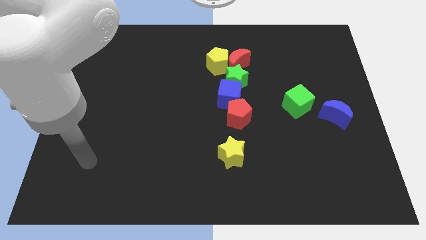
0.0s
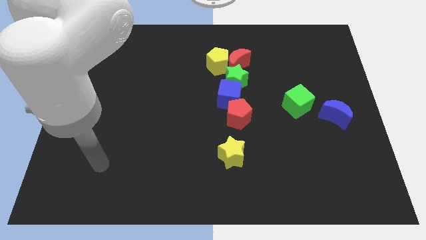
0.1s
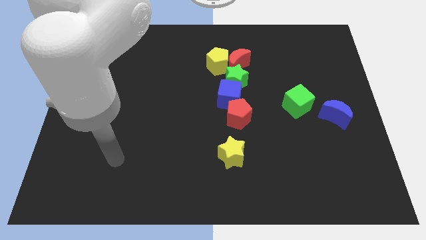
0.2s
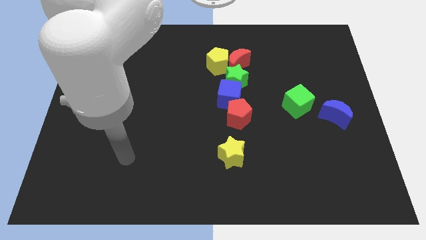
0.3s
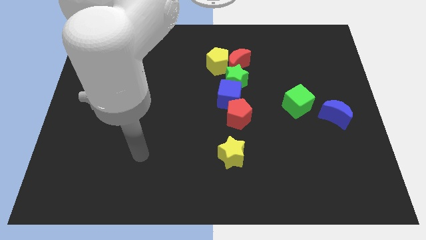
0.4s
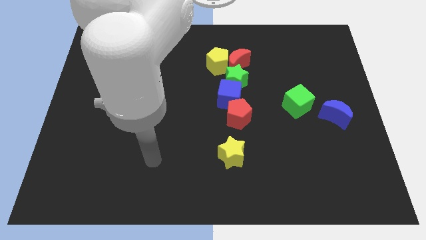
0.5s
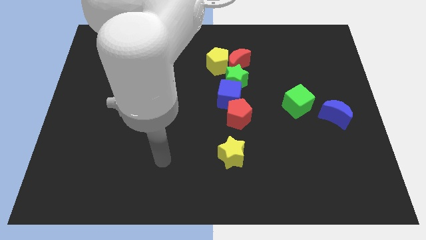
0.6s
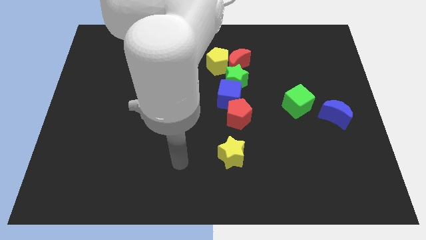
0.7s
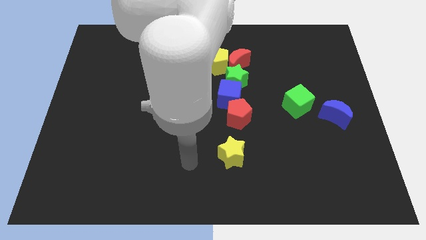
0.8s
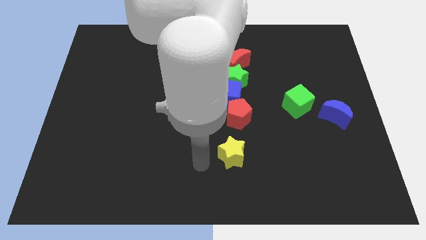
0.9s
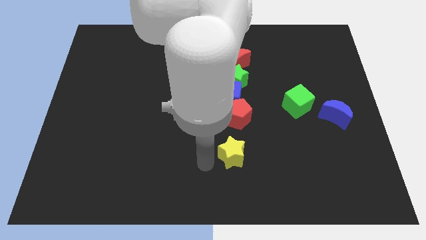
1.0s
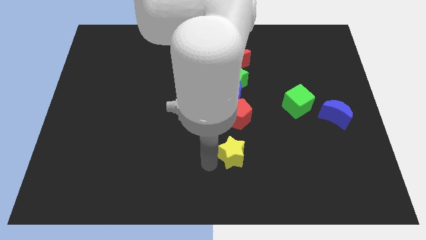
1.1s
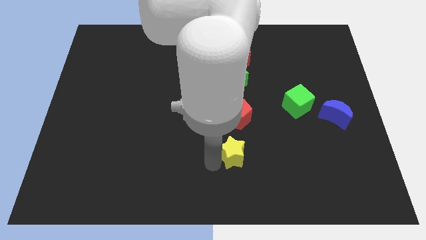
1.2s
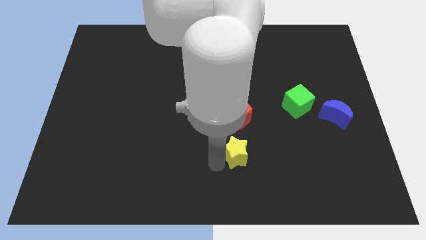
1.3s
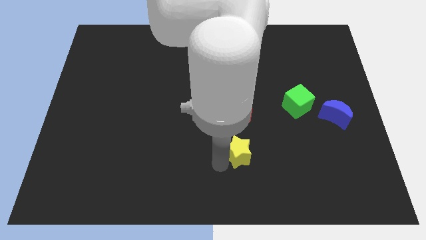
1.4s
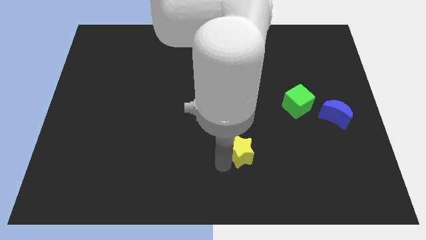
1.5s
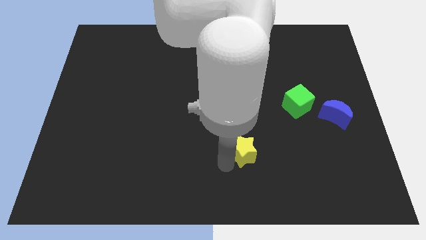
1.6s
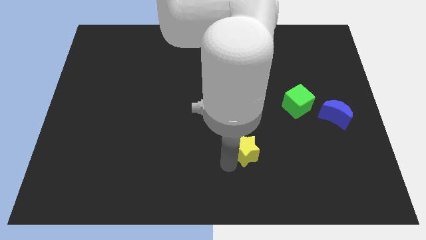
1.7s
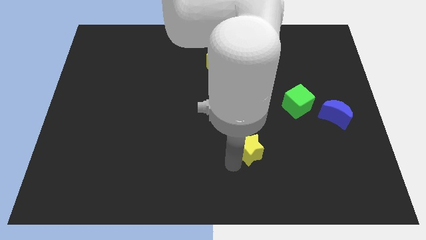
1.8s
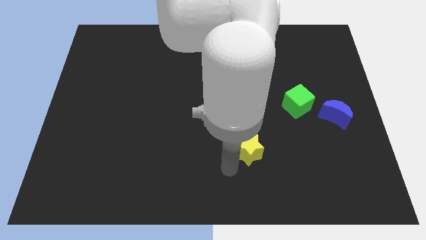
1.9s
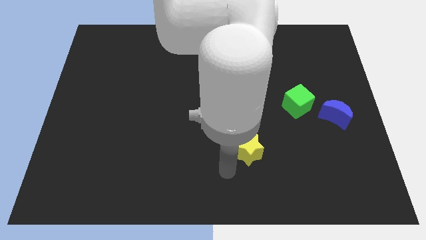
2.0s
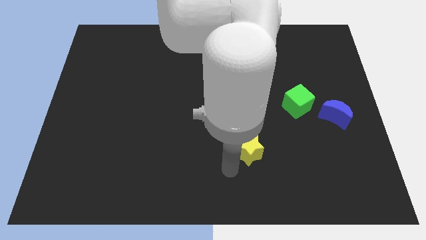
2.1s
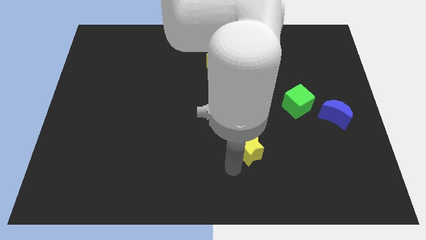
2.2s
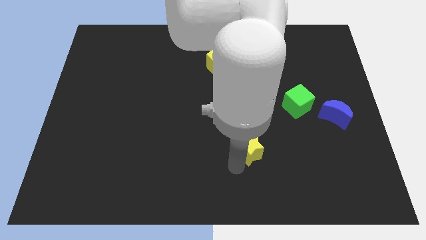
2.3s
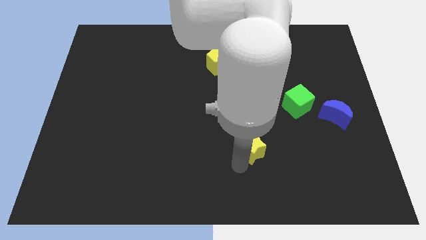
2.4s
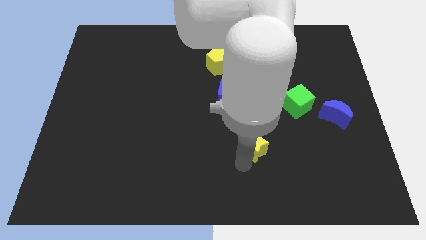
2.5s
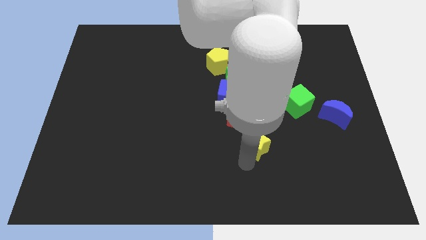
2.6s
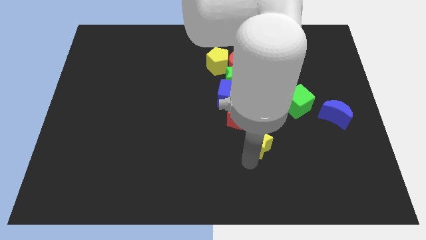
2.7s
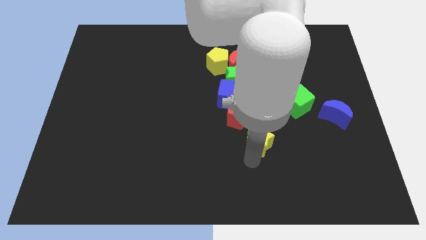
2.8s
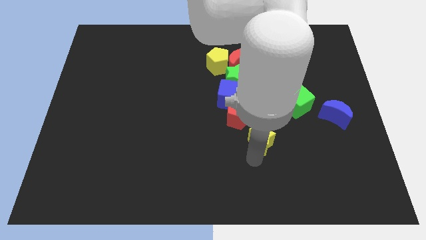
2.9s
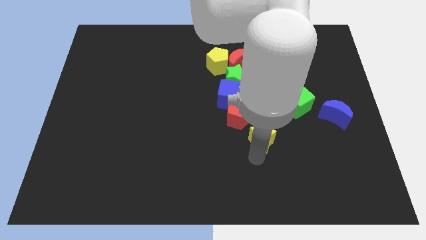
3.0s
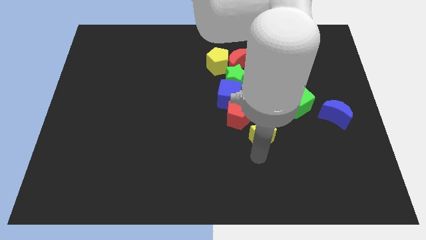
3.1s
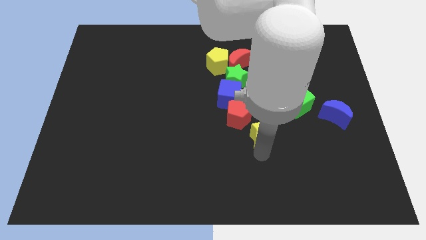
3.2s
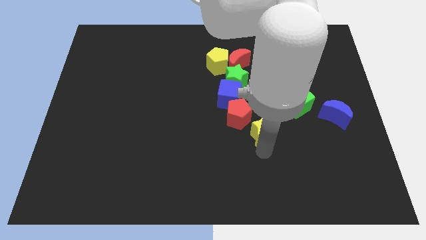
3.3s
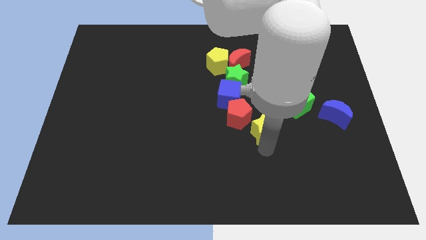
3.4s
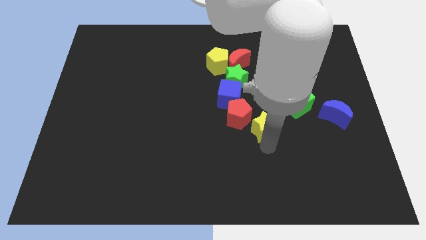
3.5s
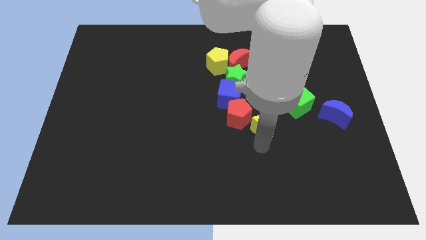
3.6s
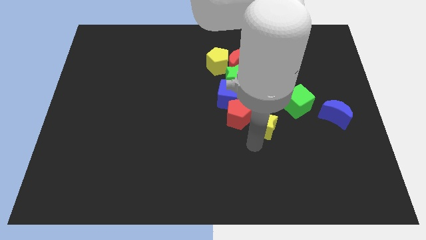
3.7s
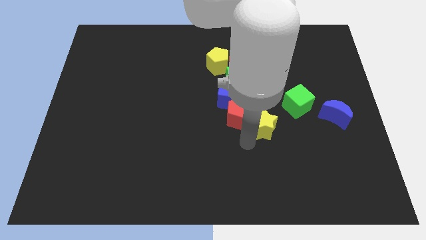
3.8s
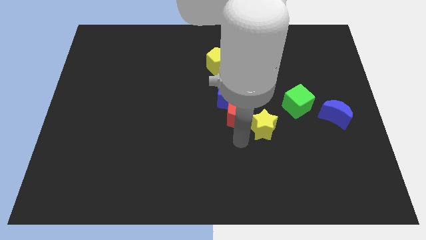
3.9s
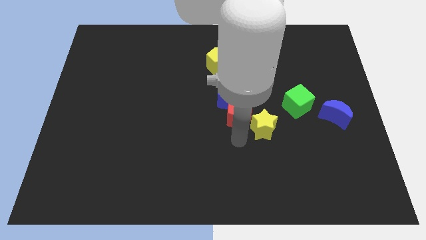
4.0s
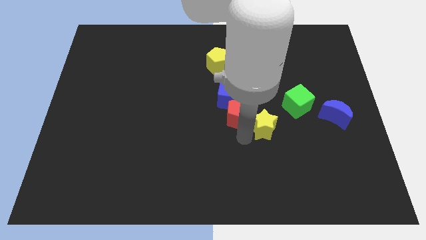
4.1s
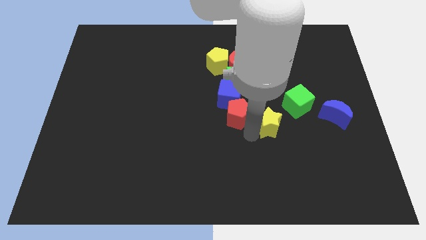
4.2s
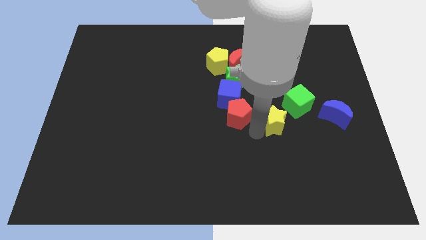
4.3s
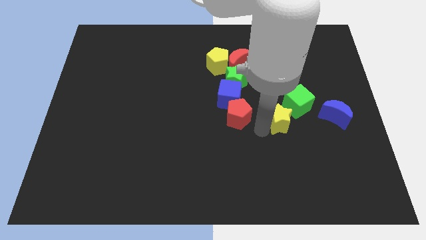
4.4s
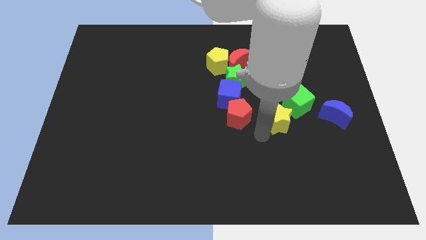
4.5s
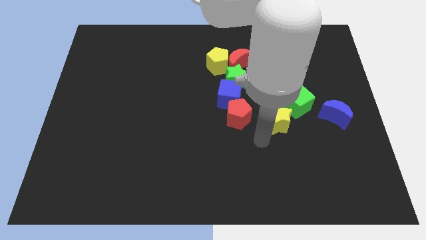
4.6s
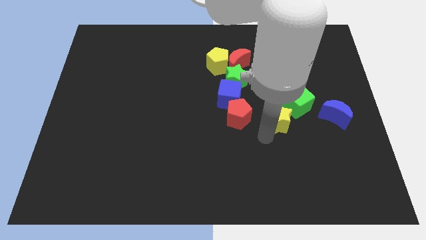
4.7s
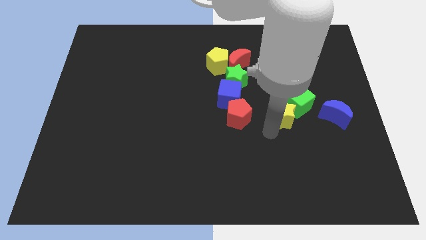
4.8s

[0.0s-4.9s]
move the yellow star to the green cube

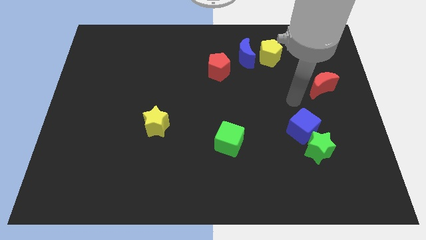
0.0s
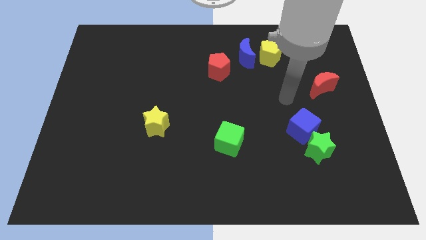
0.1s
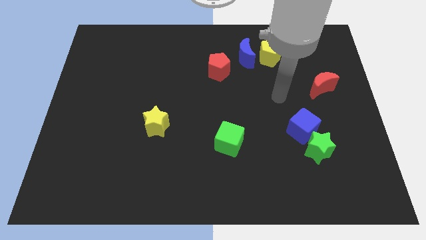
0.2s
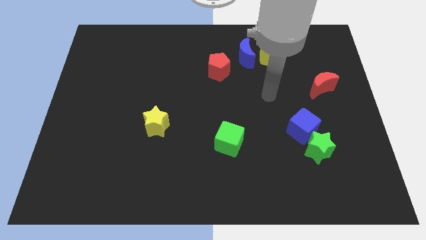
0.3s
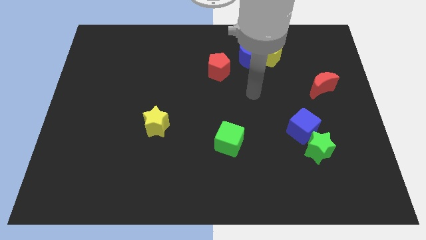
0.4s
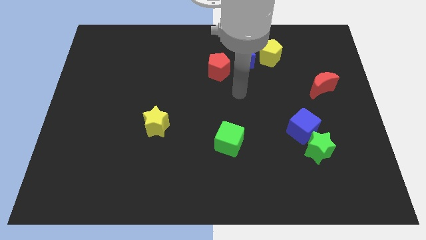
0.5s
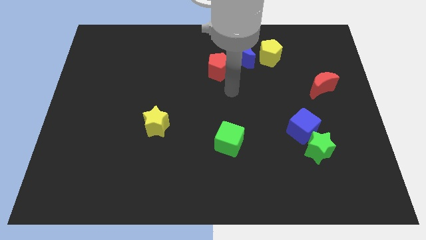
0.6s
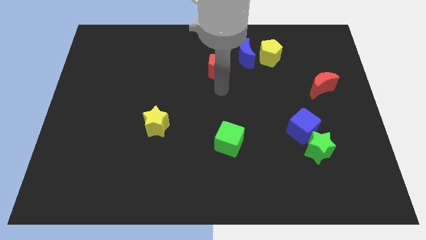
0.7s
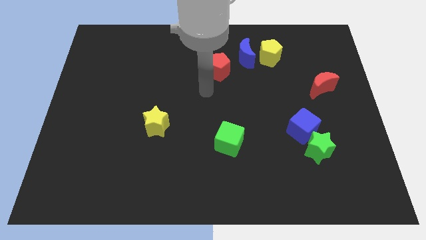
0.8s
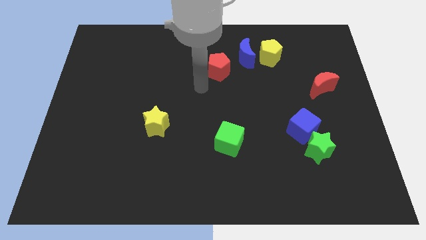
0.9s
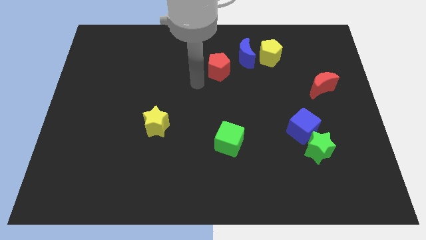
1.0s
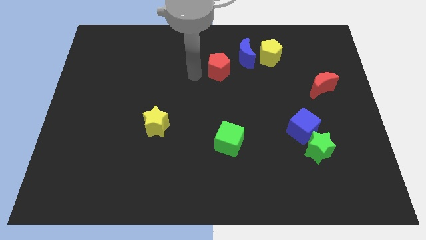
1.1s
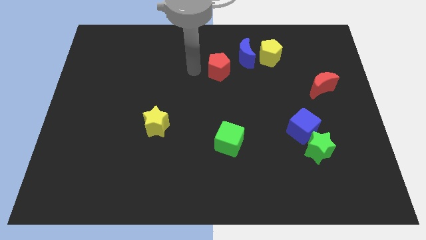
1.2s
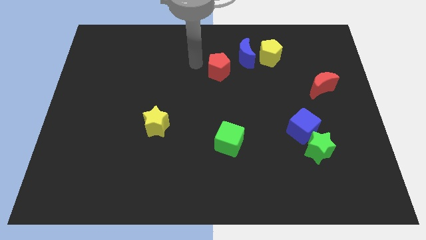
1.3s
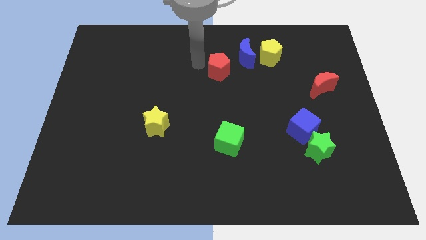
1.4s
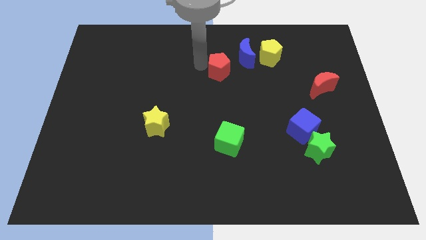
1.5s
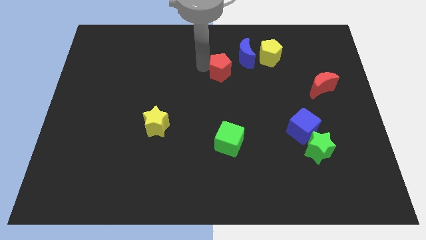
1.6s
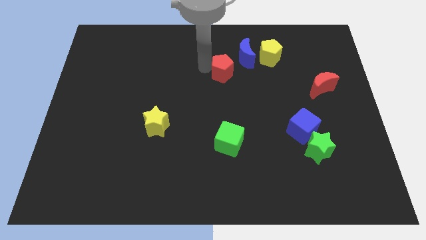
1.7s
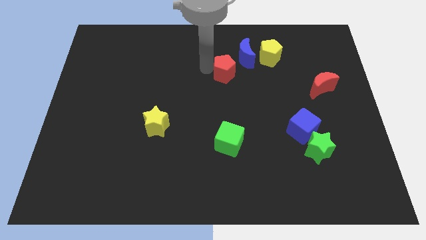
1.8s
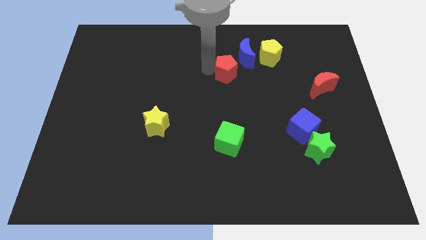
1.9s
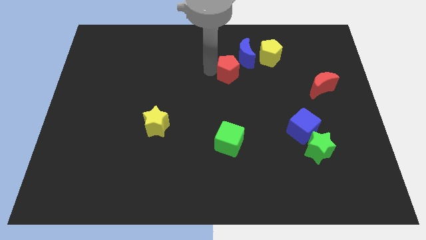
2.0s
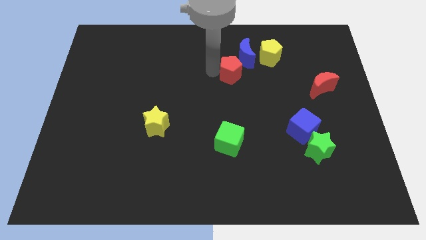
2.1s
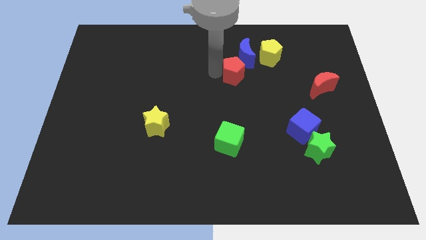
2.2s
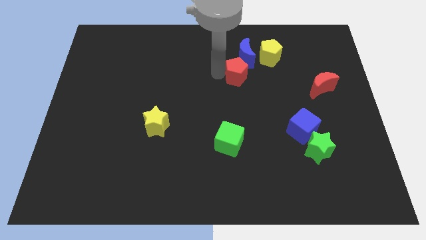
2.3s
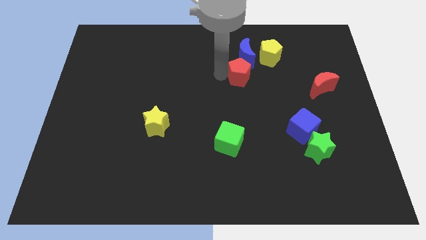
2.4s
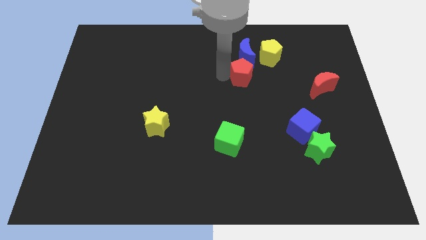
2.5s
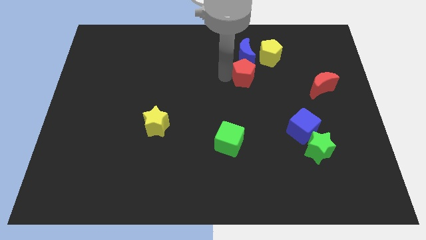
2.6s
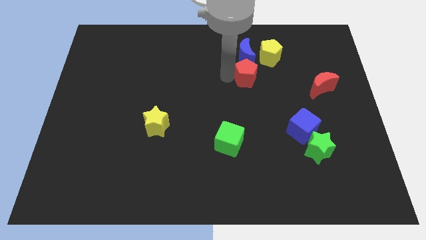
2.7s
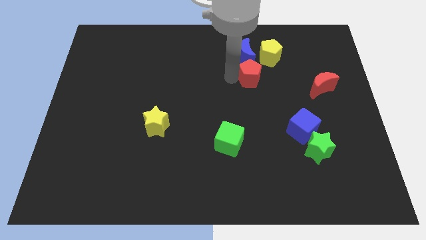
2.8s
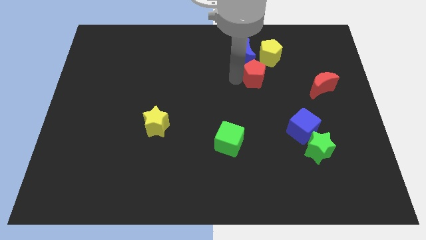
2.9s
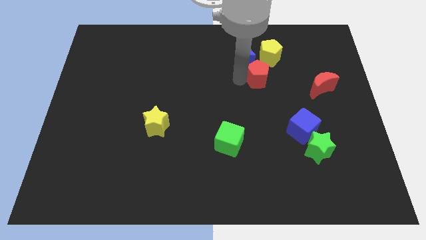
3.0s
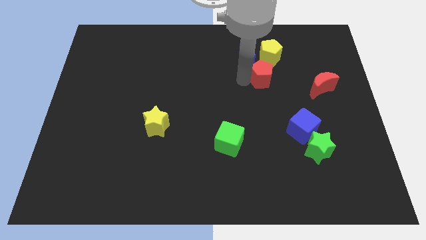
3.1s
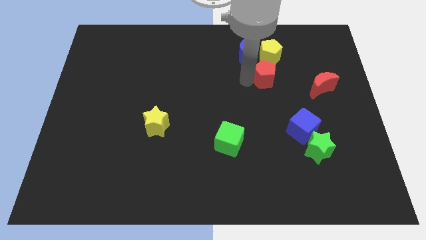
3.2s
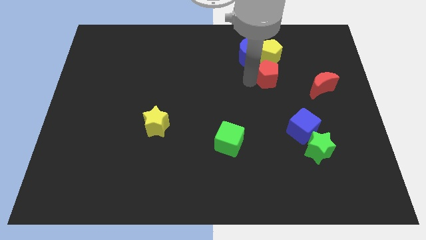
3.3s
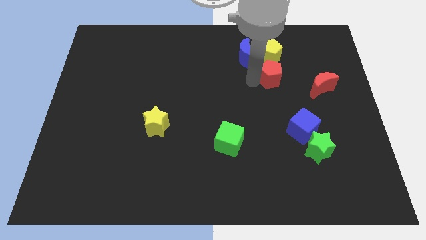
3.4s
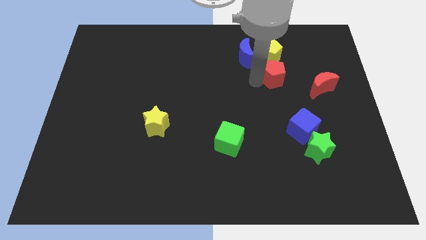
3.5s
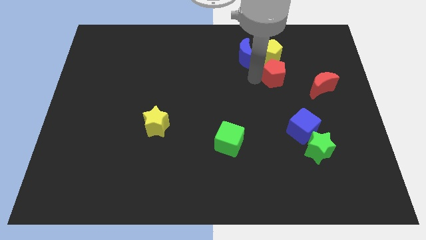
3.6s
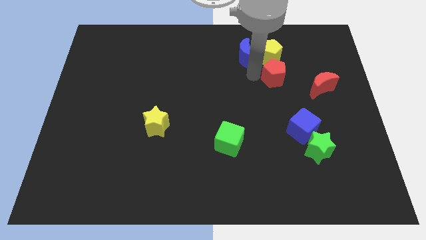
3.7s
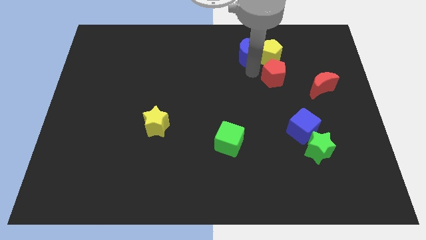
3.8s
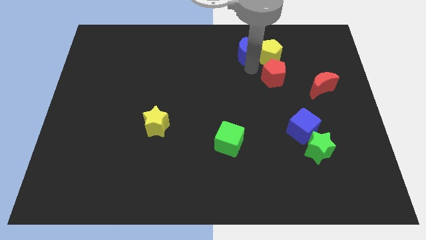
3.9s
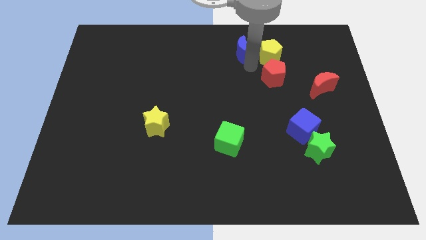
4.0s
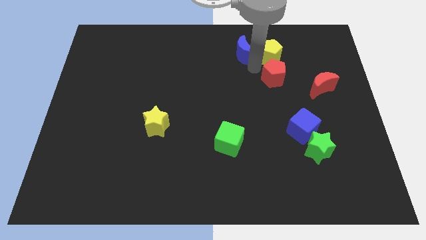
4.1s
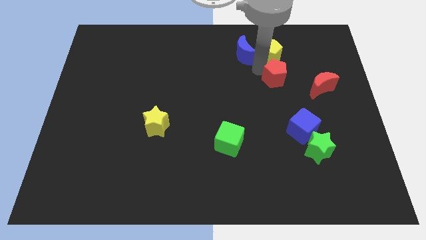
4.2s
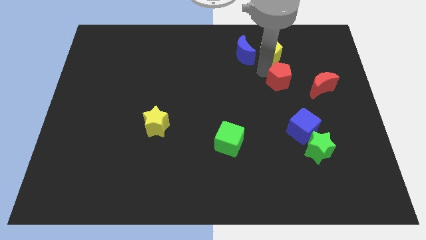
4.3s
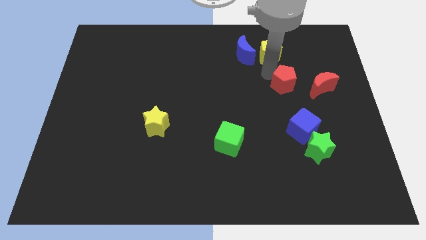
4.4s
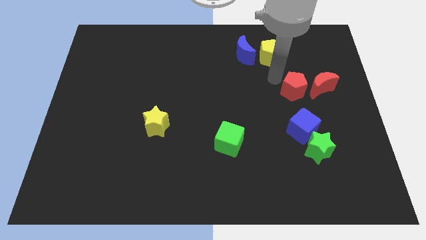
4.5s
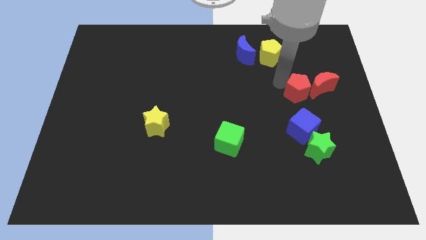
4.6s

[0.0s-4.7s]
put the red pentagon towards the red moon
